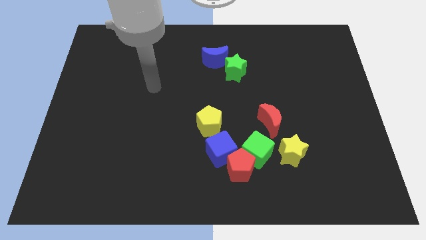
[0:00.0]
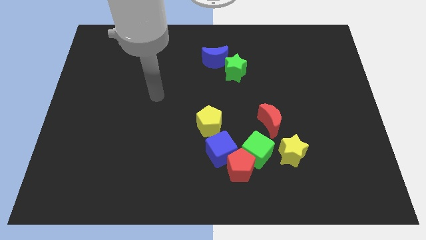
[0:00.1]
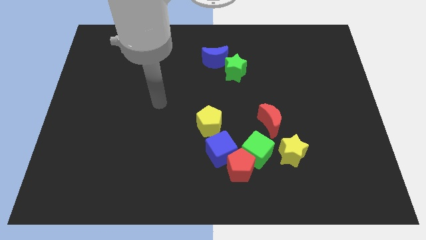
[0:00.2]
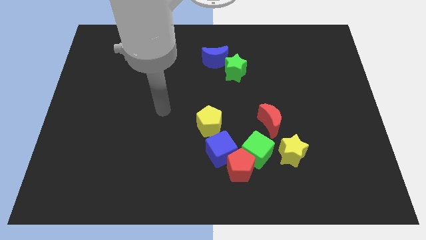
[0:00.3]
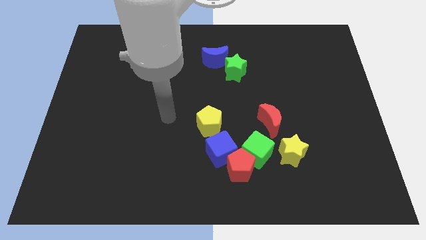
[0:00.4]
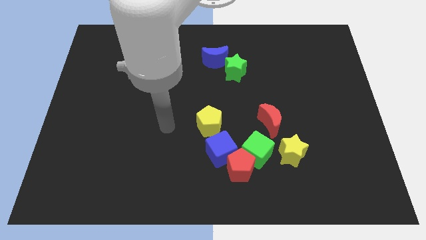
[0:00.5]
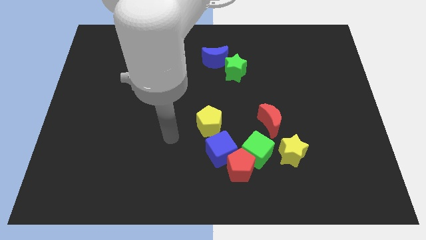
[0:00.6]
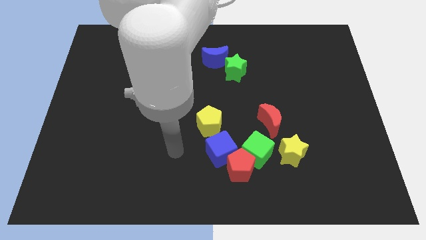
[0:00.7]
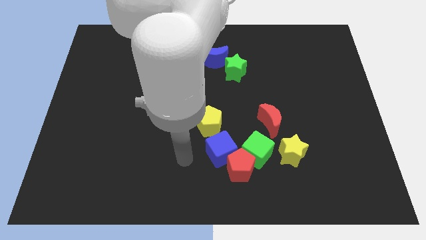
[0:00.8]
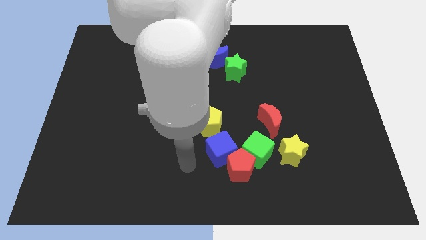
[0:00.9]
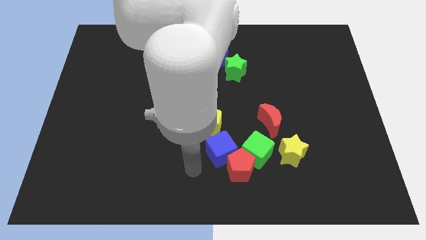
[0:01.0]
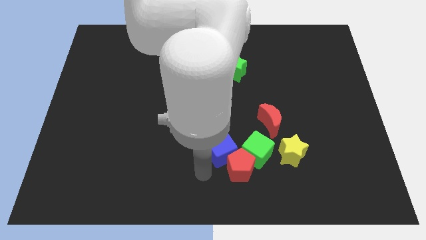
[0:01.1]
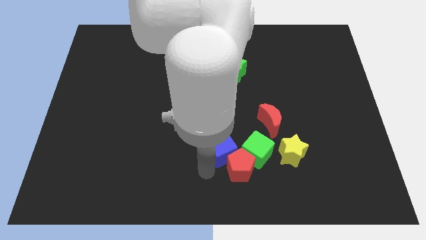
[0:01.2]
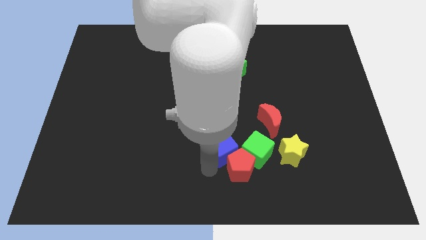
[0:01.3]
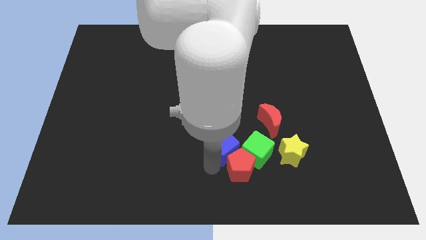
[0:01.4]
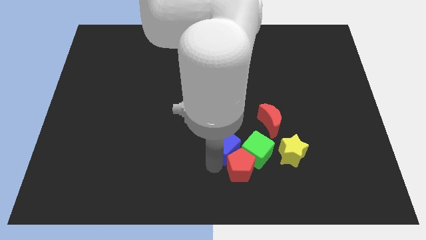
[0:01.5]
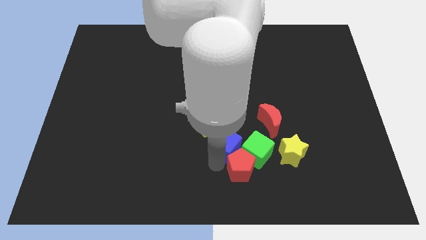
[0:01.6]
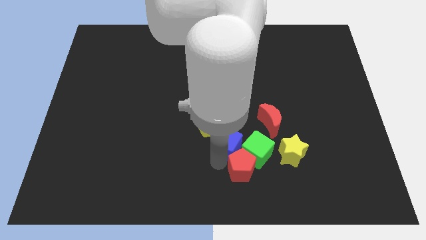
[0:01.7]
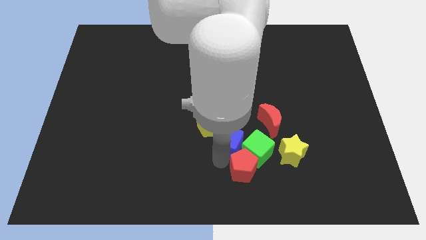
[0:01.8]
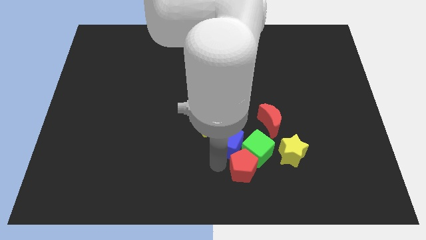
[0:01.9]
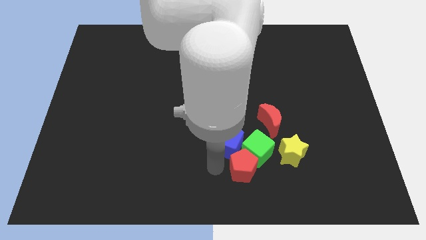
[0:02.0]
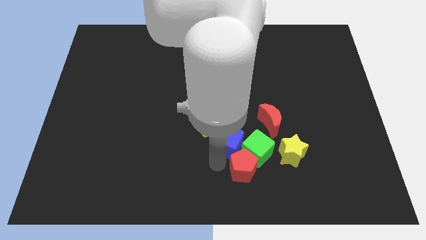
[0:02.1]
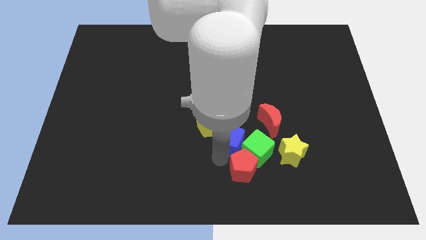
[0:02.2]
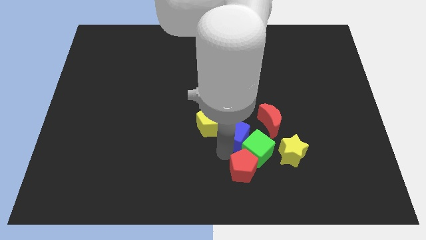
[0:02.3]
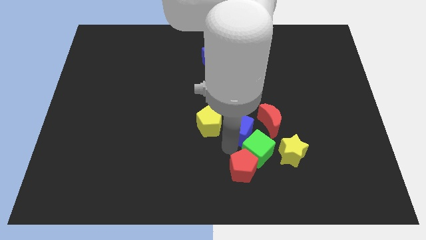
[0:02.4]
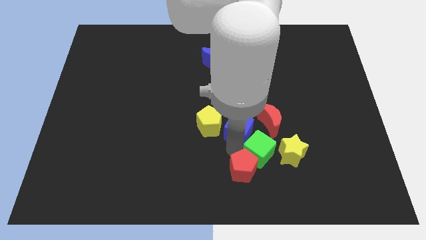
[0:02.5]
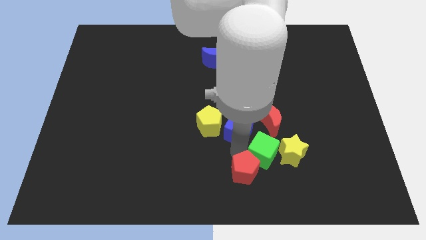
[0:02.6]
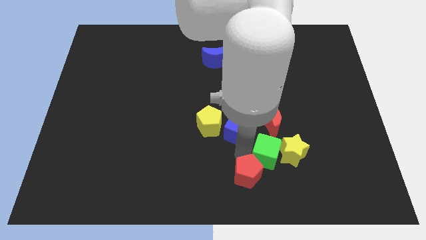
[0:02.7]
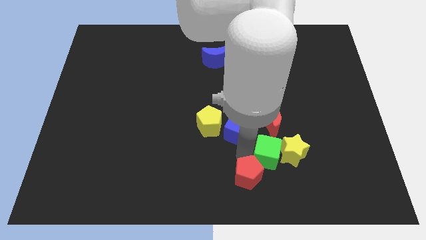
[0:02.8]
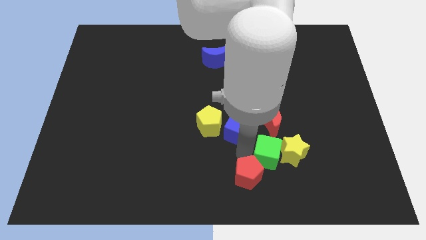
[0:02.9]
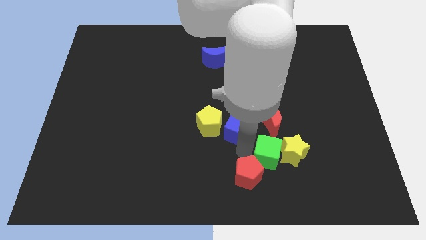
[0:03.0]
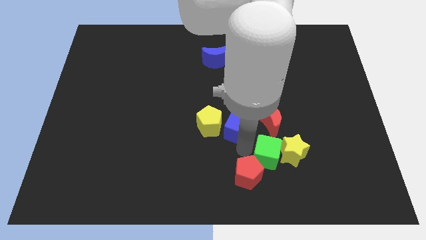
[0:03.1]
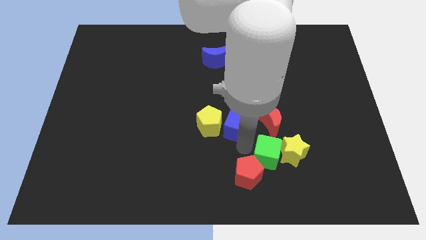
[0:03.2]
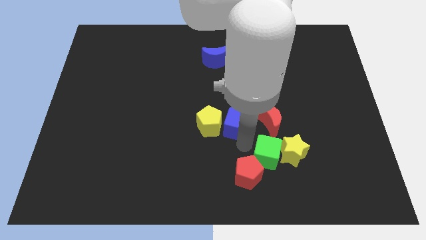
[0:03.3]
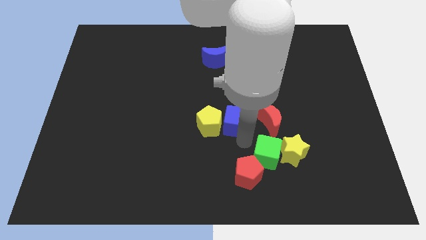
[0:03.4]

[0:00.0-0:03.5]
slightly push the blue cube upwards

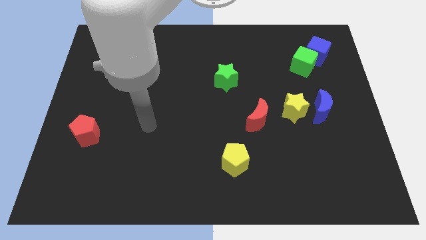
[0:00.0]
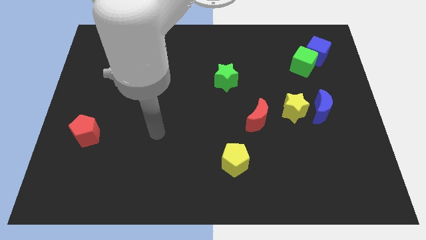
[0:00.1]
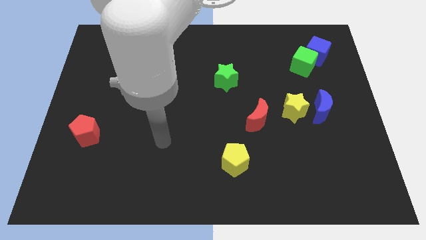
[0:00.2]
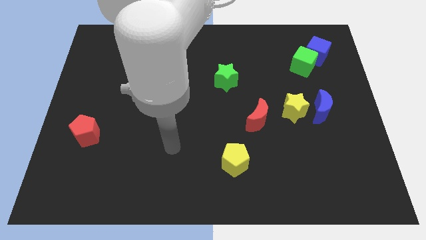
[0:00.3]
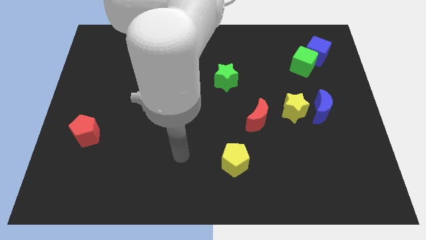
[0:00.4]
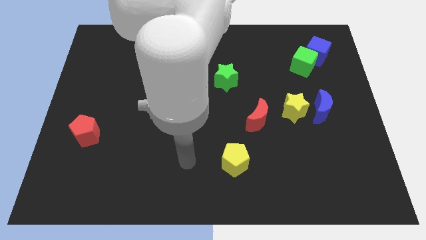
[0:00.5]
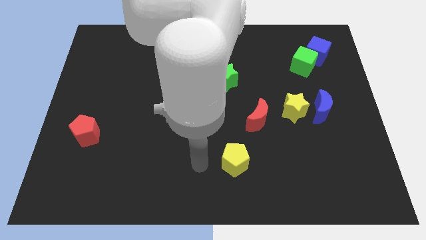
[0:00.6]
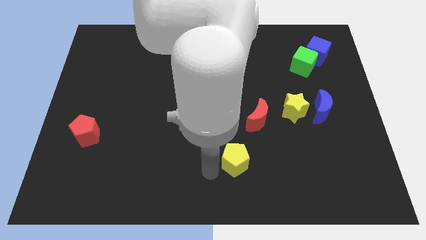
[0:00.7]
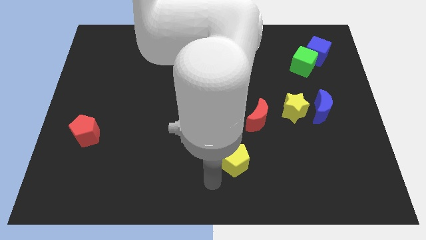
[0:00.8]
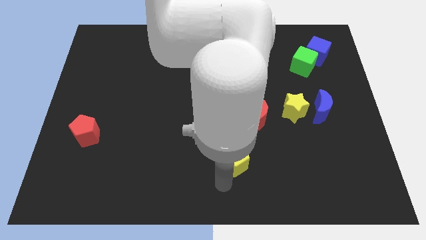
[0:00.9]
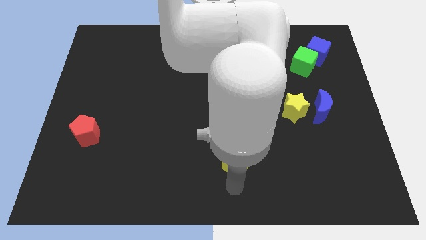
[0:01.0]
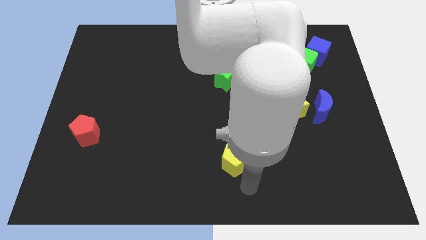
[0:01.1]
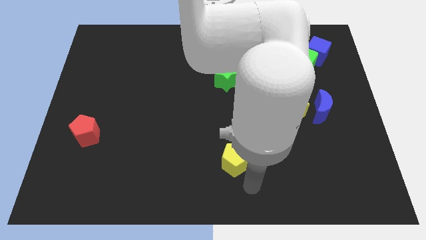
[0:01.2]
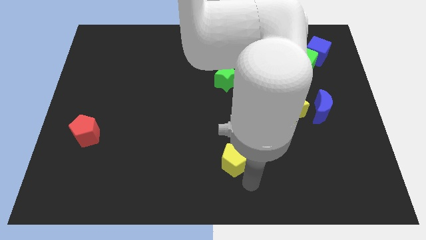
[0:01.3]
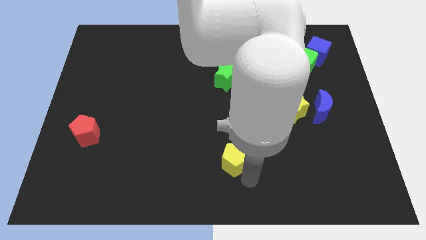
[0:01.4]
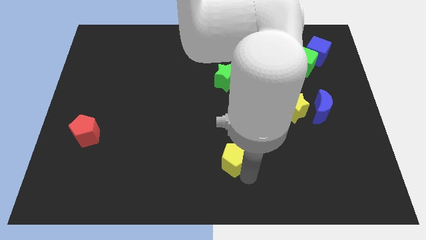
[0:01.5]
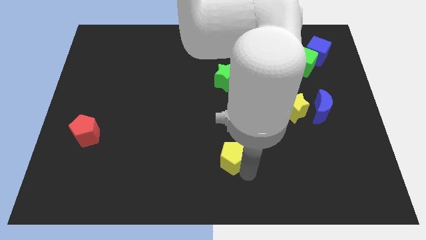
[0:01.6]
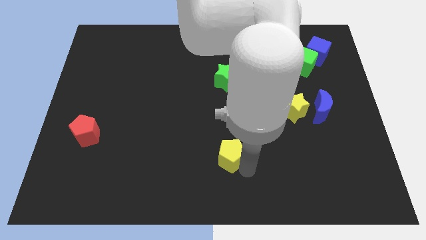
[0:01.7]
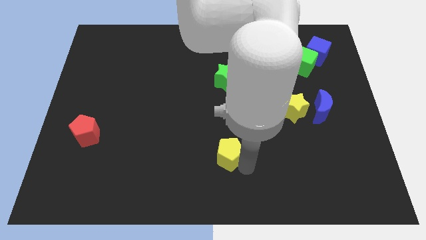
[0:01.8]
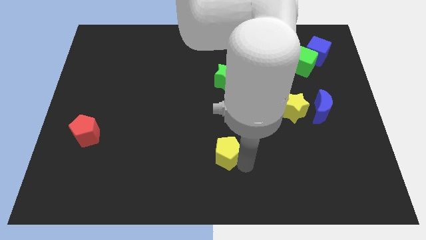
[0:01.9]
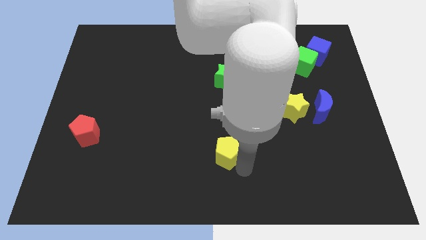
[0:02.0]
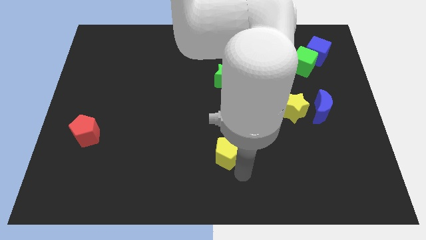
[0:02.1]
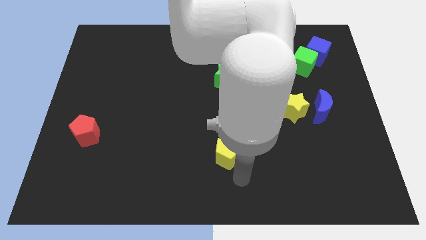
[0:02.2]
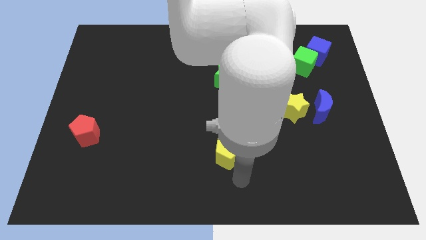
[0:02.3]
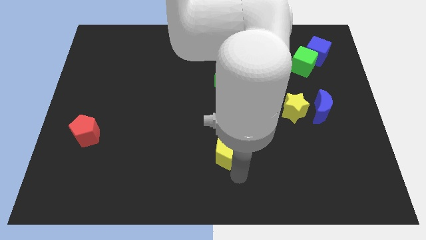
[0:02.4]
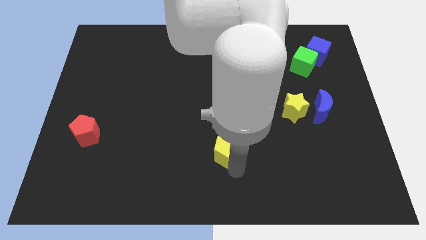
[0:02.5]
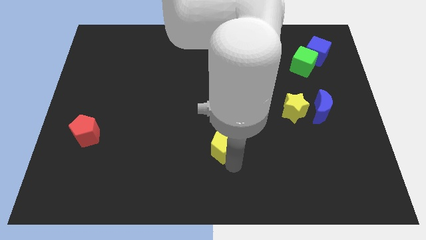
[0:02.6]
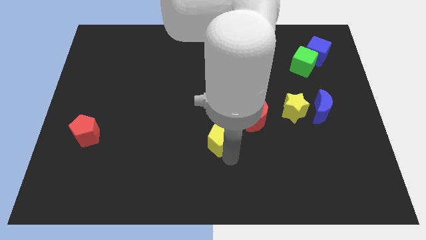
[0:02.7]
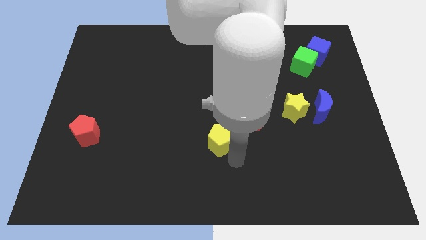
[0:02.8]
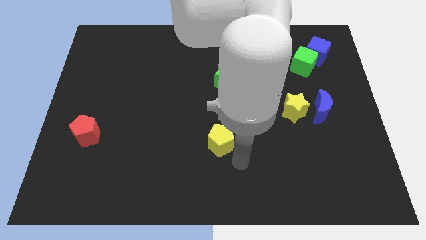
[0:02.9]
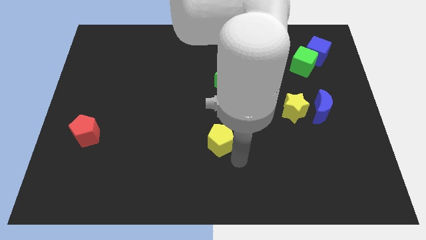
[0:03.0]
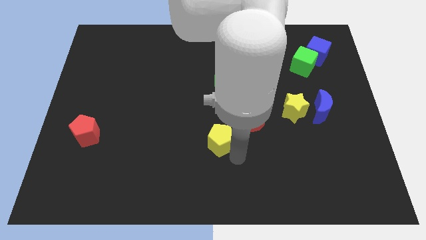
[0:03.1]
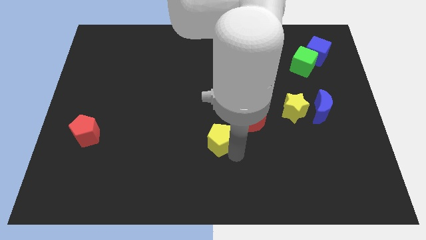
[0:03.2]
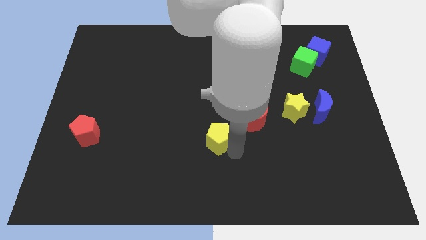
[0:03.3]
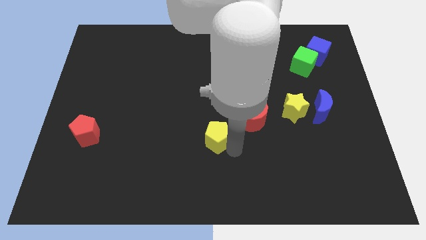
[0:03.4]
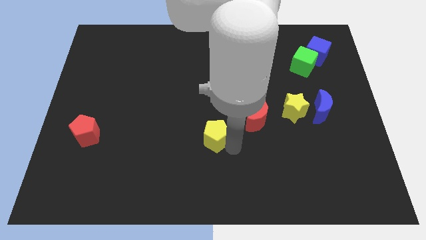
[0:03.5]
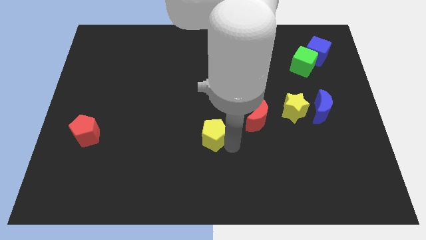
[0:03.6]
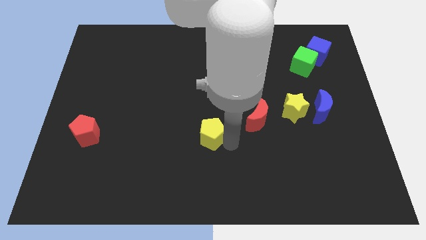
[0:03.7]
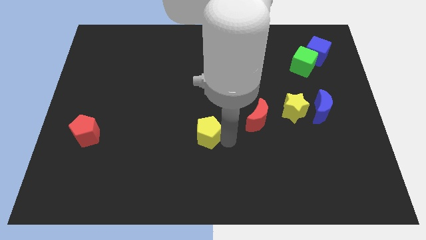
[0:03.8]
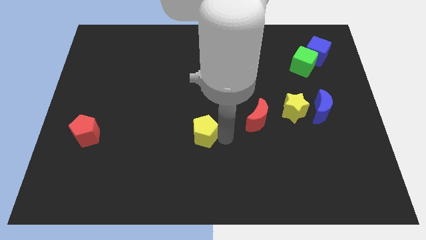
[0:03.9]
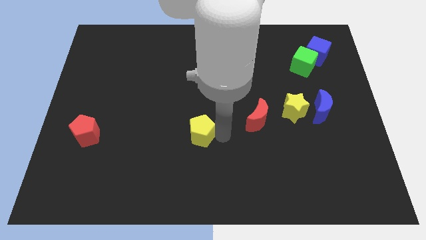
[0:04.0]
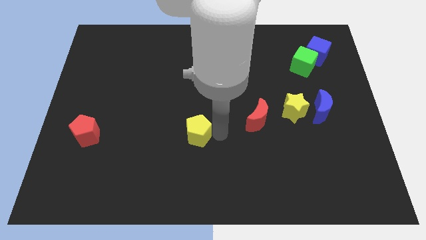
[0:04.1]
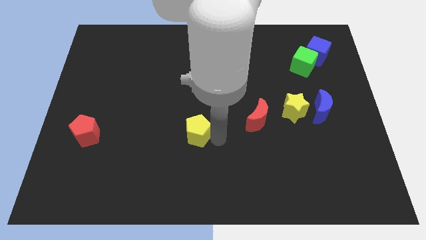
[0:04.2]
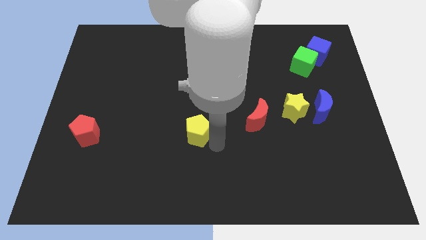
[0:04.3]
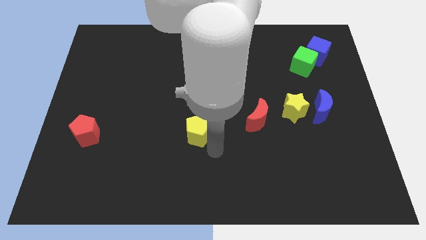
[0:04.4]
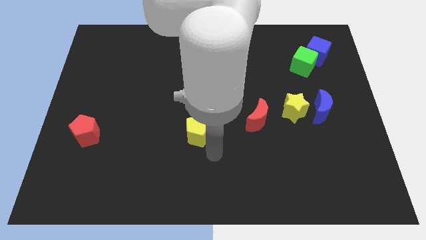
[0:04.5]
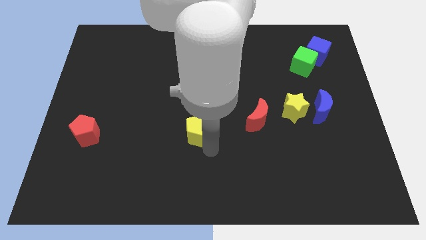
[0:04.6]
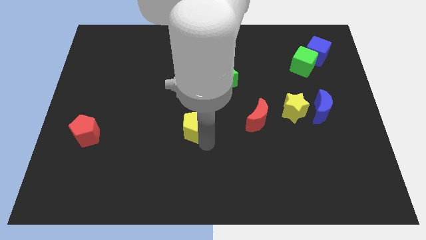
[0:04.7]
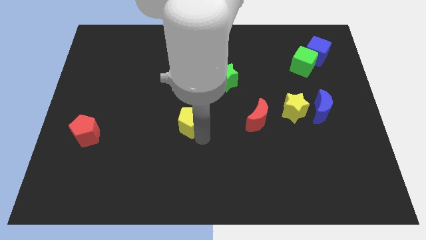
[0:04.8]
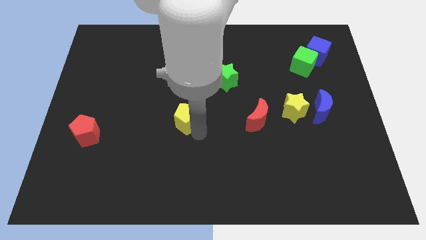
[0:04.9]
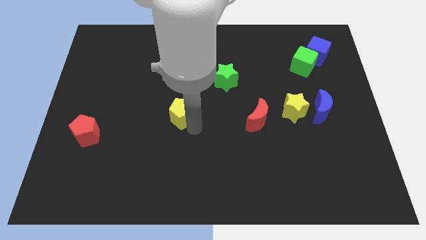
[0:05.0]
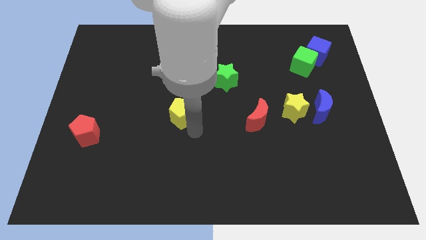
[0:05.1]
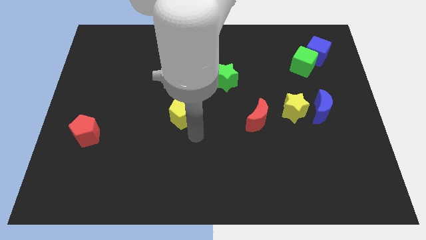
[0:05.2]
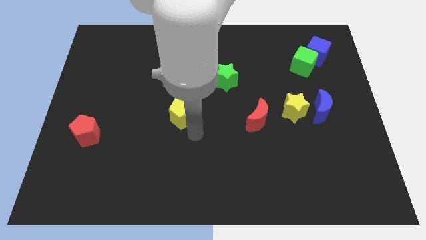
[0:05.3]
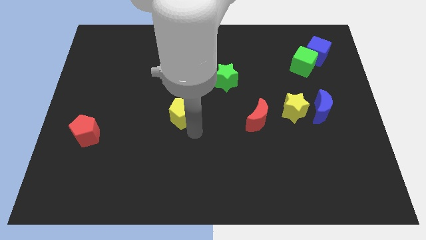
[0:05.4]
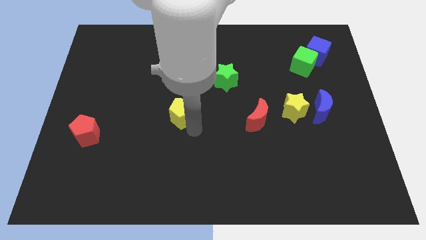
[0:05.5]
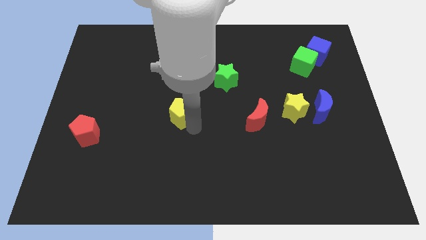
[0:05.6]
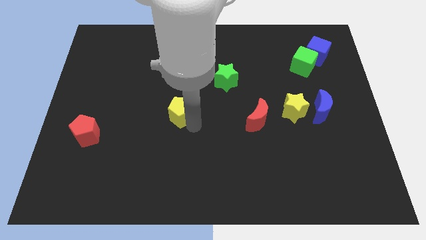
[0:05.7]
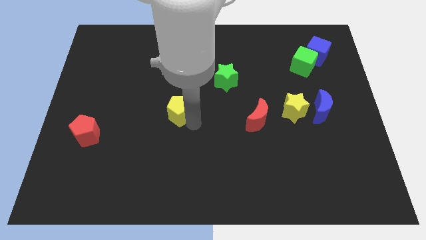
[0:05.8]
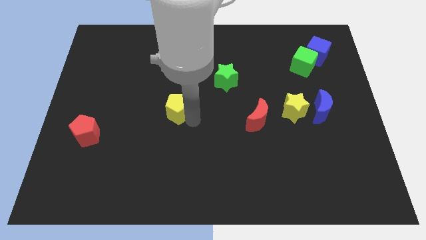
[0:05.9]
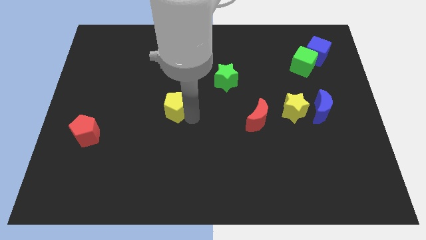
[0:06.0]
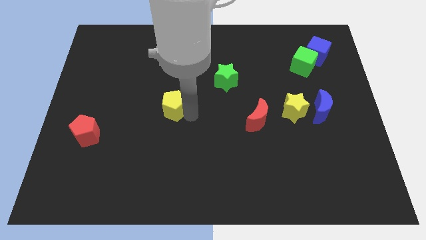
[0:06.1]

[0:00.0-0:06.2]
slide the yellow pentagon diagonally upwards and left
